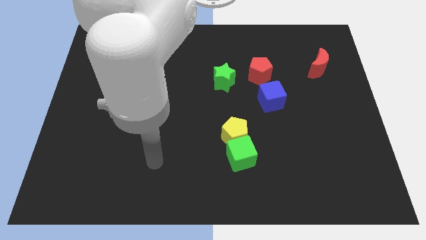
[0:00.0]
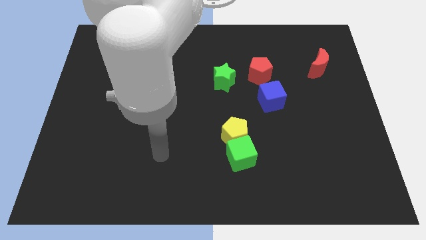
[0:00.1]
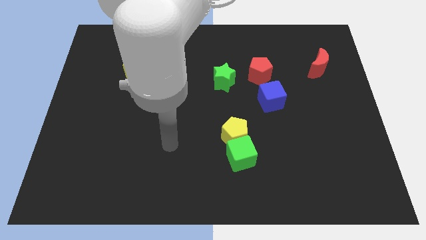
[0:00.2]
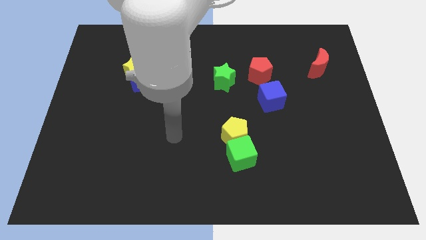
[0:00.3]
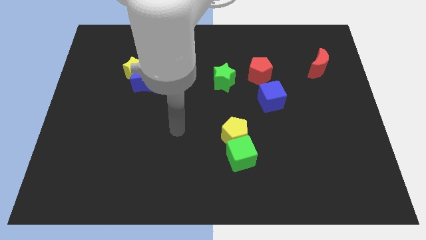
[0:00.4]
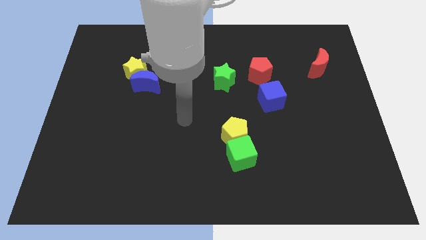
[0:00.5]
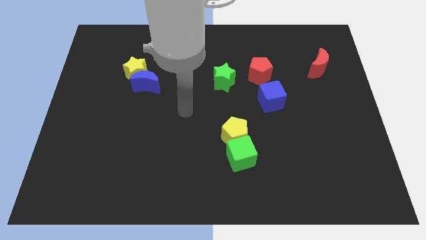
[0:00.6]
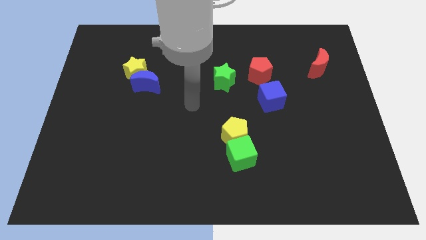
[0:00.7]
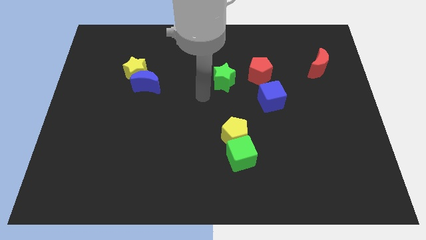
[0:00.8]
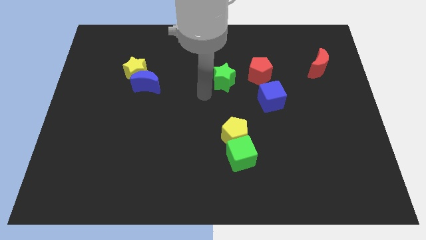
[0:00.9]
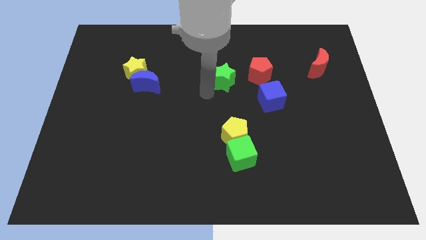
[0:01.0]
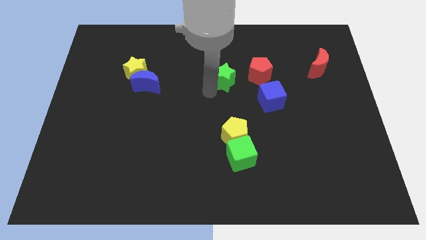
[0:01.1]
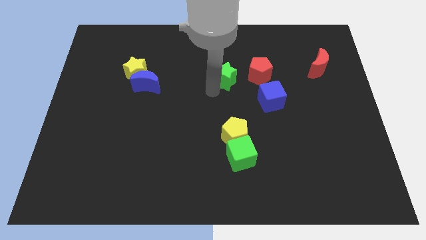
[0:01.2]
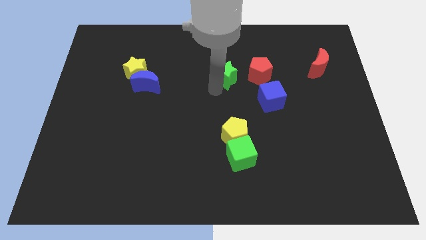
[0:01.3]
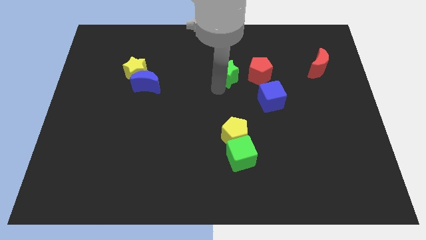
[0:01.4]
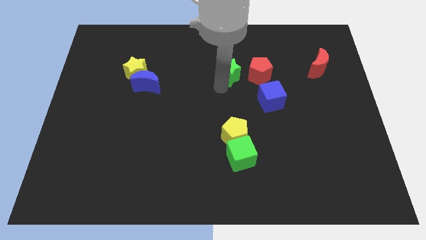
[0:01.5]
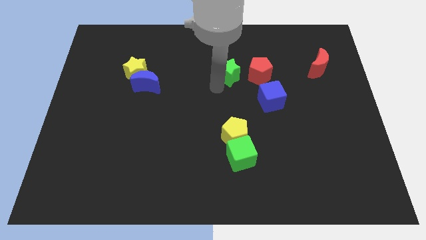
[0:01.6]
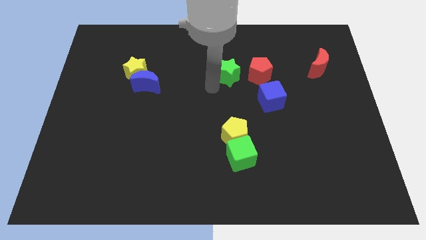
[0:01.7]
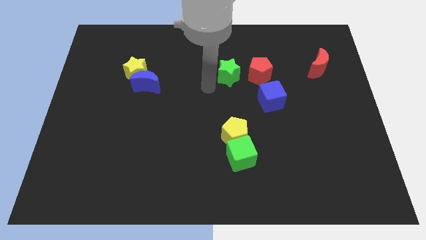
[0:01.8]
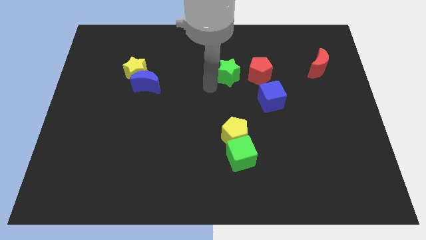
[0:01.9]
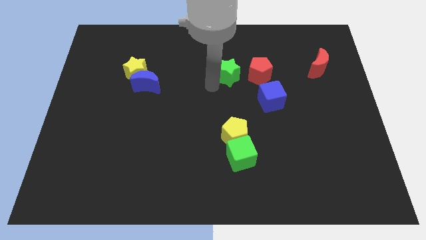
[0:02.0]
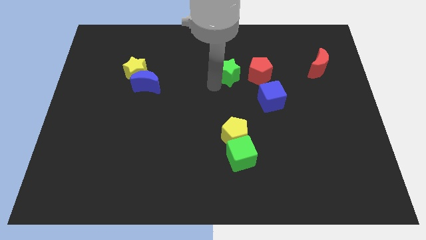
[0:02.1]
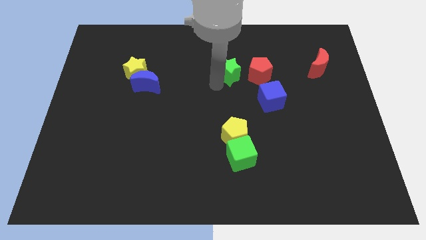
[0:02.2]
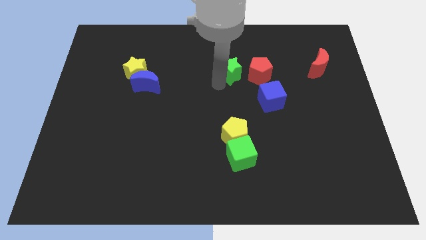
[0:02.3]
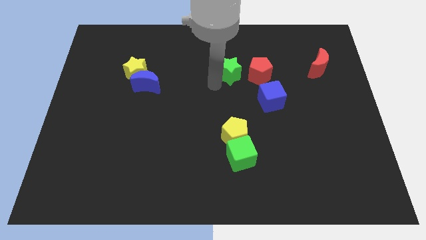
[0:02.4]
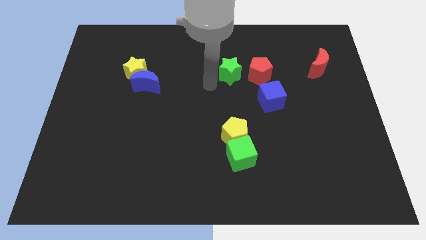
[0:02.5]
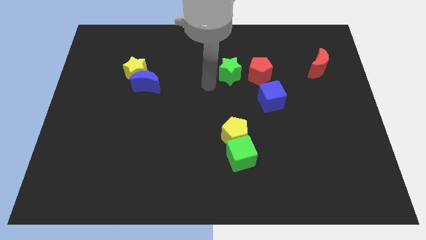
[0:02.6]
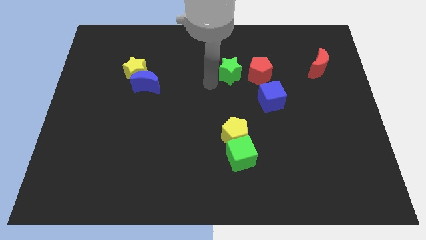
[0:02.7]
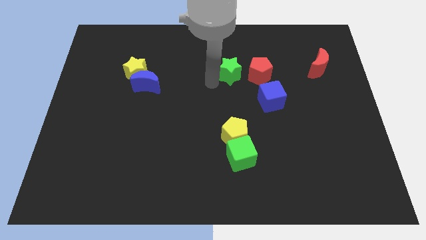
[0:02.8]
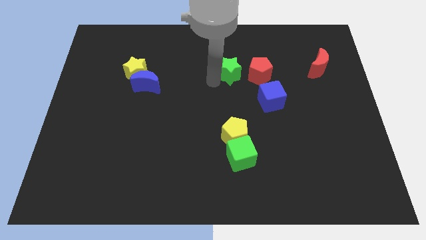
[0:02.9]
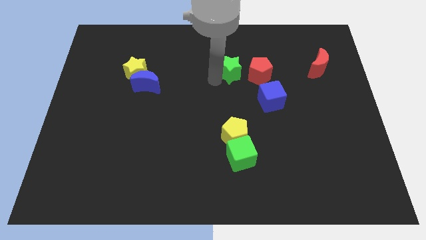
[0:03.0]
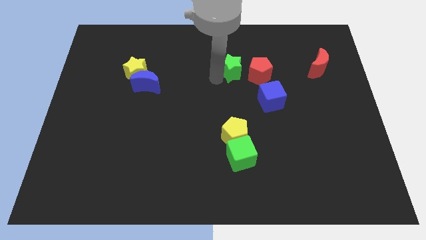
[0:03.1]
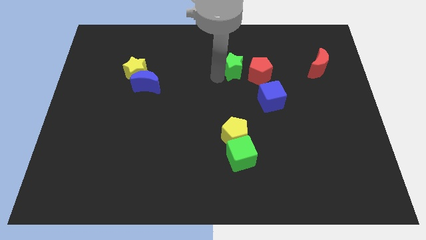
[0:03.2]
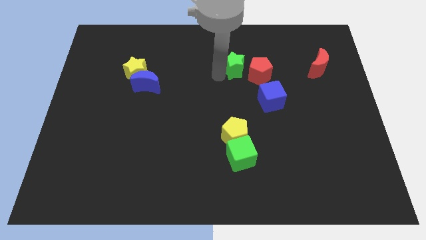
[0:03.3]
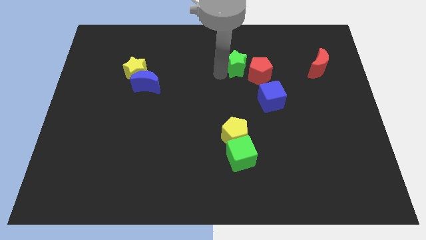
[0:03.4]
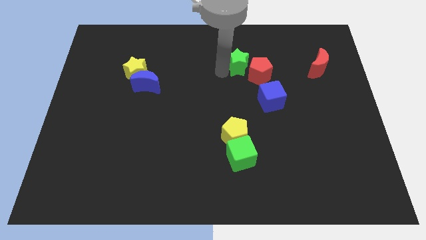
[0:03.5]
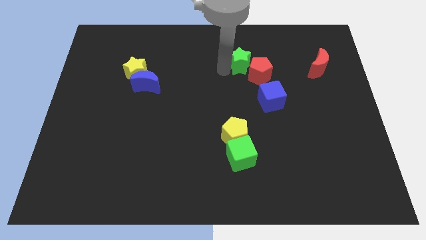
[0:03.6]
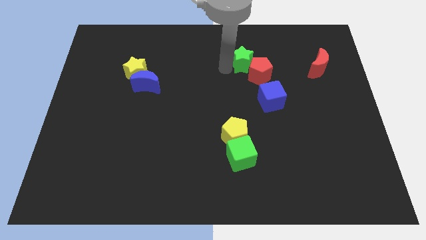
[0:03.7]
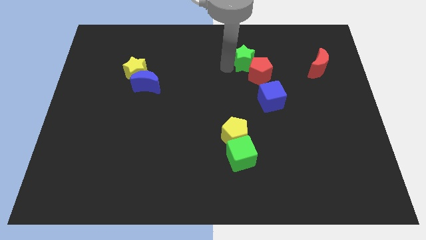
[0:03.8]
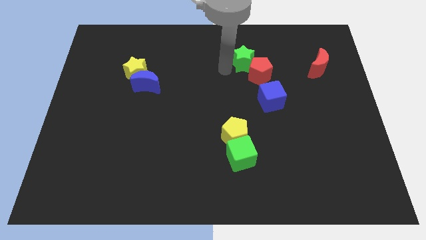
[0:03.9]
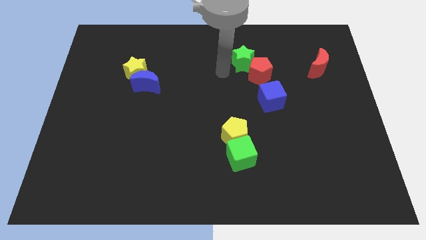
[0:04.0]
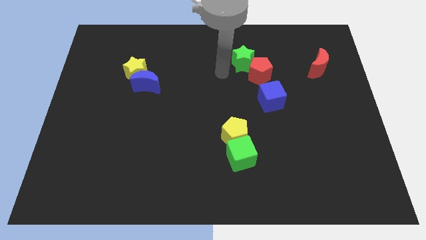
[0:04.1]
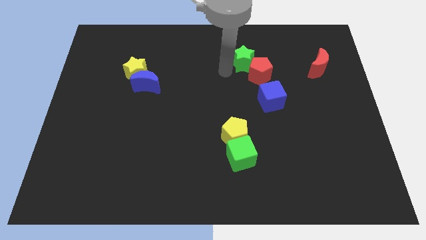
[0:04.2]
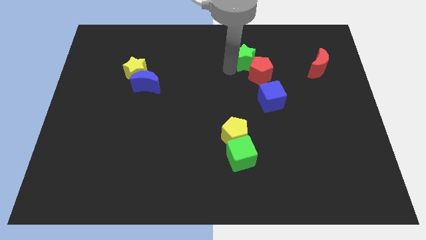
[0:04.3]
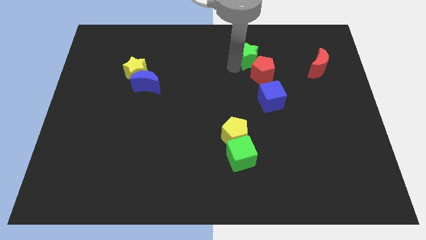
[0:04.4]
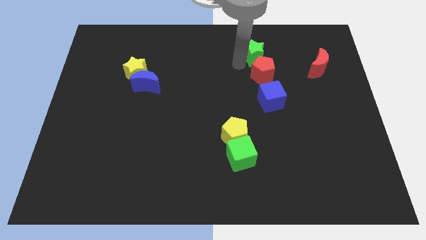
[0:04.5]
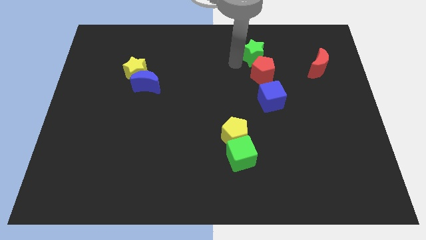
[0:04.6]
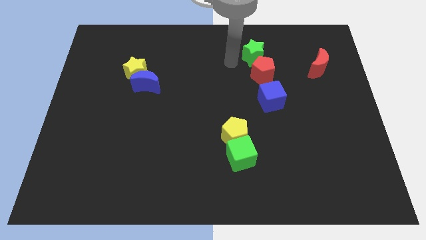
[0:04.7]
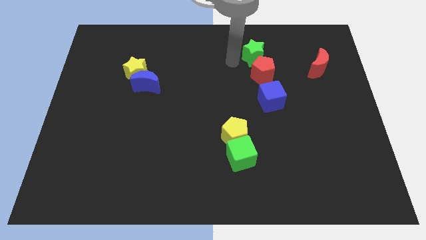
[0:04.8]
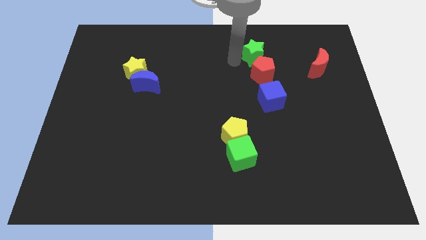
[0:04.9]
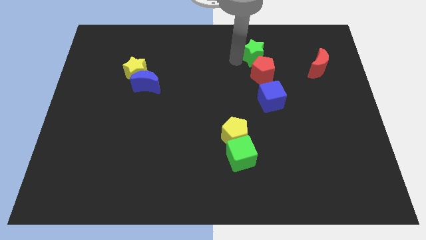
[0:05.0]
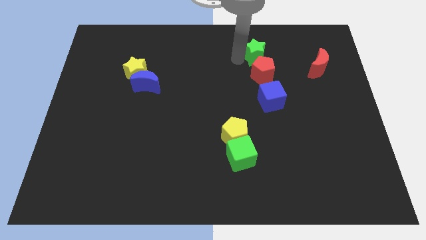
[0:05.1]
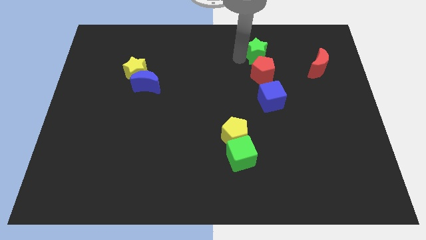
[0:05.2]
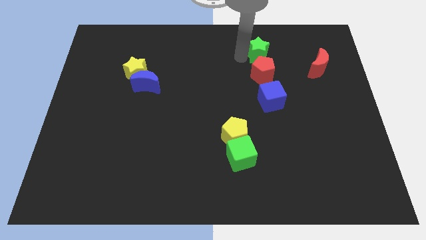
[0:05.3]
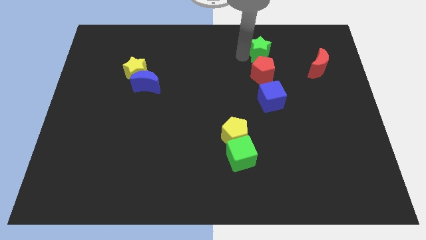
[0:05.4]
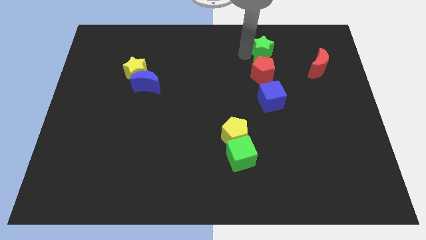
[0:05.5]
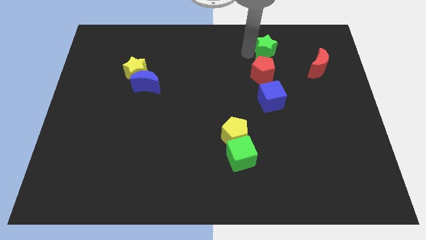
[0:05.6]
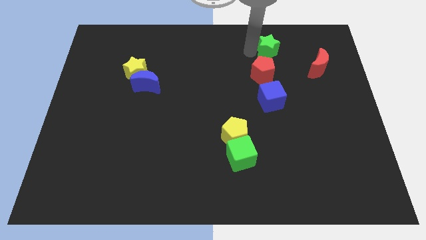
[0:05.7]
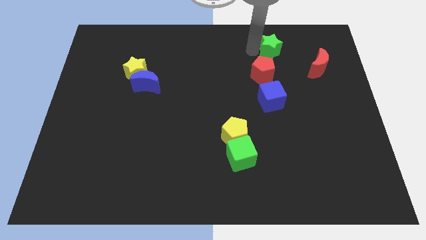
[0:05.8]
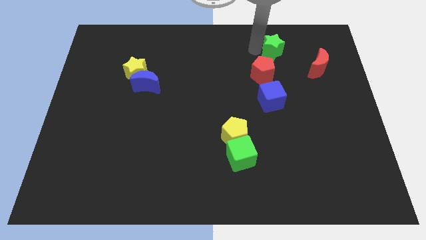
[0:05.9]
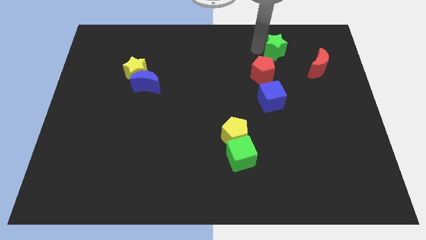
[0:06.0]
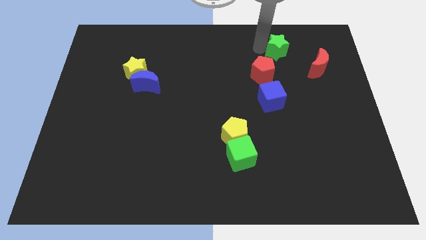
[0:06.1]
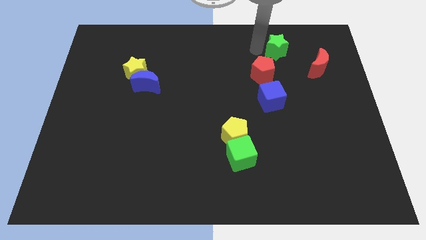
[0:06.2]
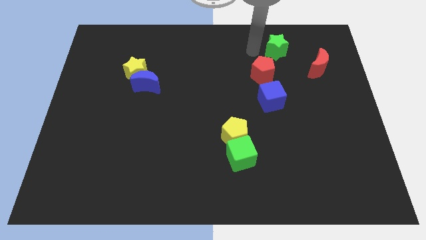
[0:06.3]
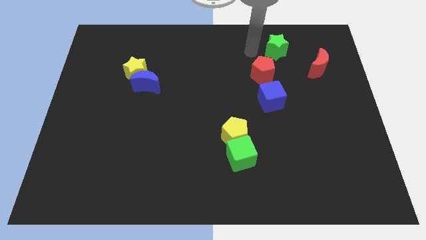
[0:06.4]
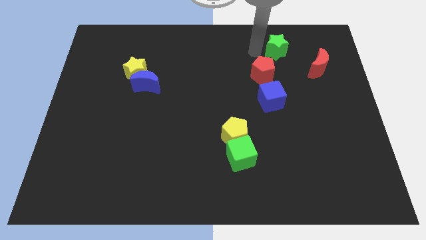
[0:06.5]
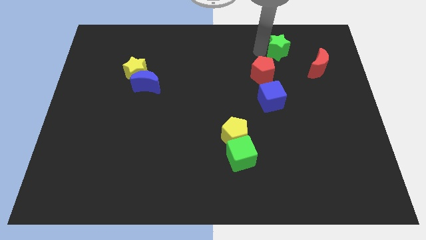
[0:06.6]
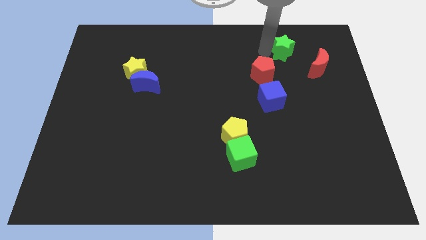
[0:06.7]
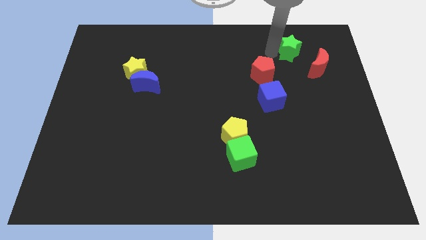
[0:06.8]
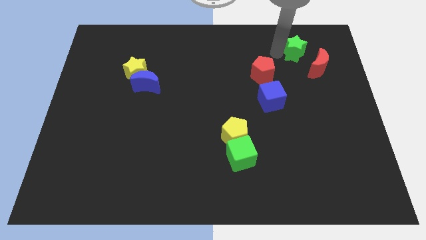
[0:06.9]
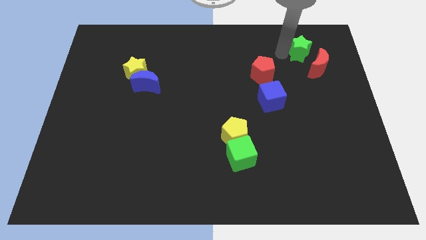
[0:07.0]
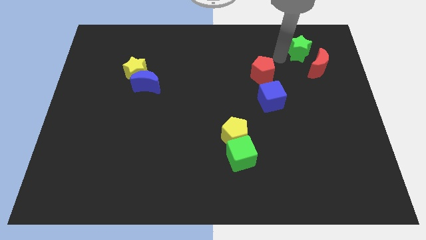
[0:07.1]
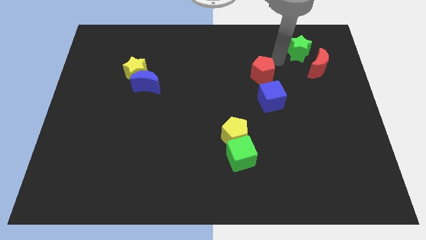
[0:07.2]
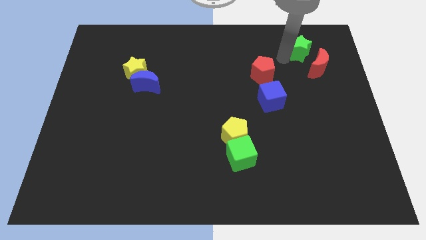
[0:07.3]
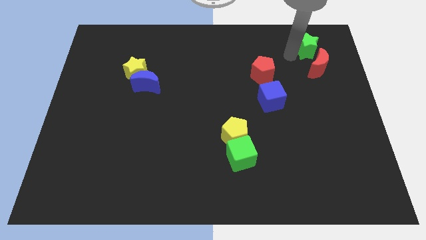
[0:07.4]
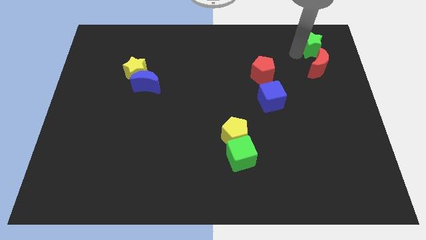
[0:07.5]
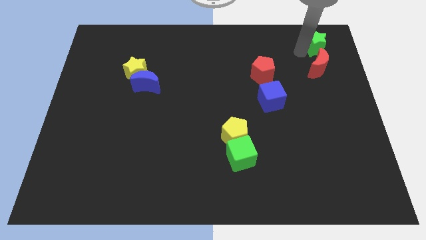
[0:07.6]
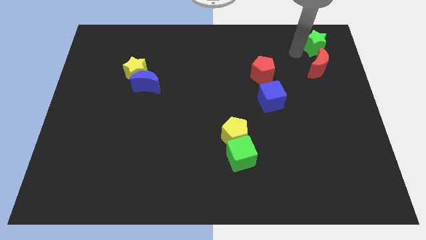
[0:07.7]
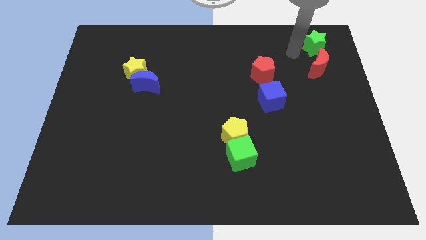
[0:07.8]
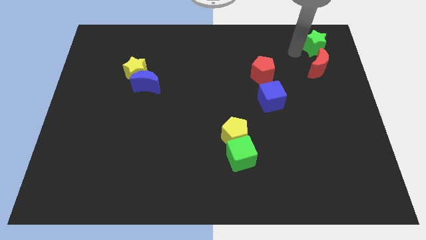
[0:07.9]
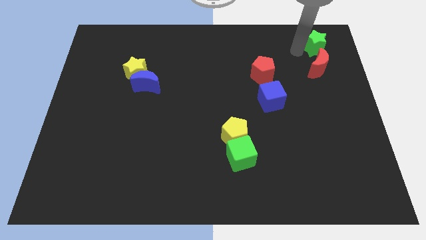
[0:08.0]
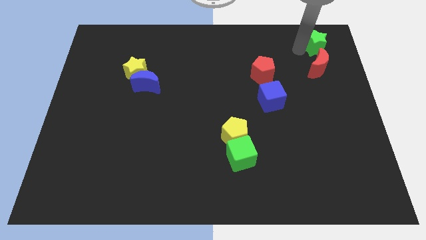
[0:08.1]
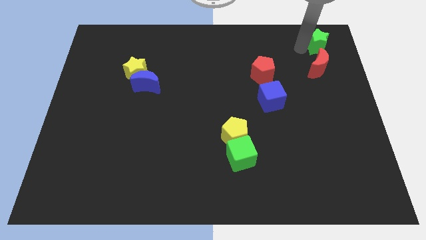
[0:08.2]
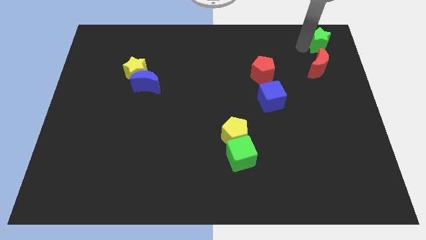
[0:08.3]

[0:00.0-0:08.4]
slide the green star to the upper right corner
